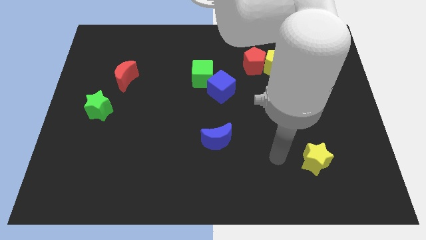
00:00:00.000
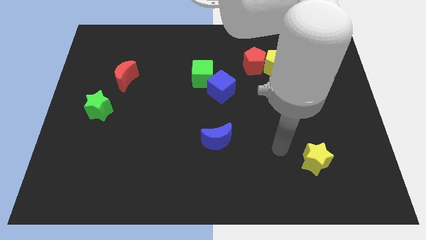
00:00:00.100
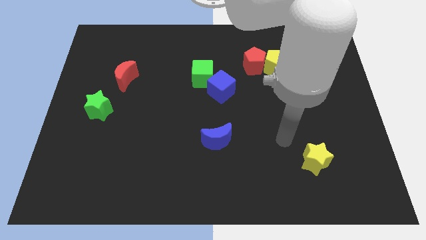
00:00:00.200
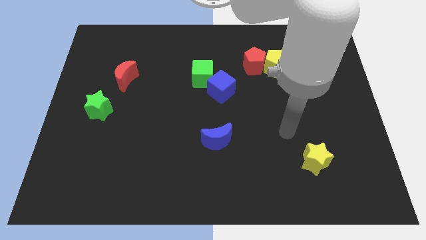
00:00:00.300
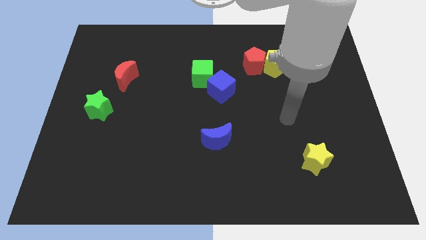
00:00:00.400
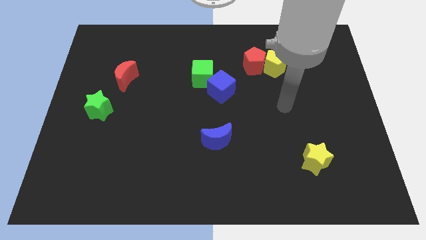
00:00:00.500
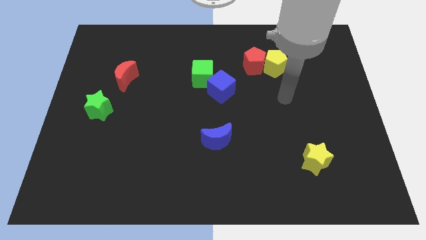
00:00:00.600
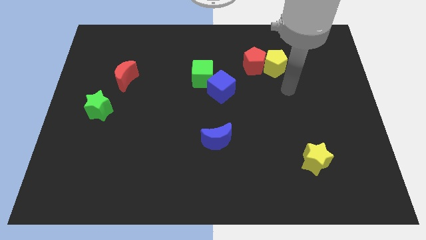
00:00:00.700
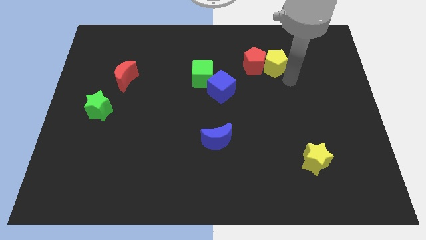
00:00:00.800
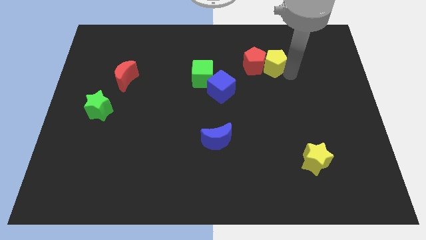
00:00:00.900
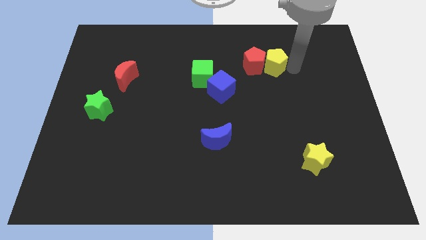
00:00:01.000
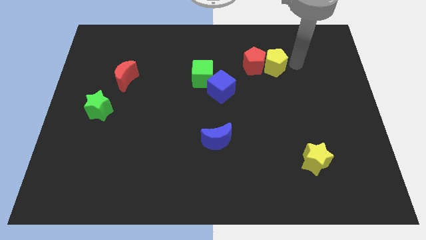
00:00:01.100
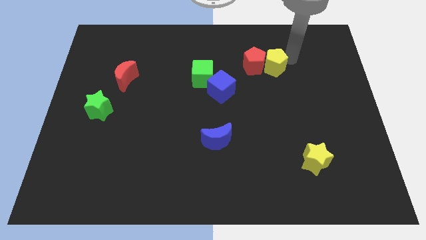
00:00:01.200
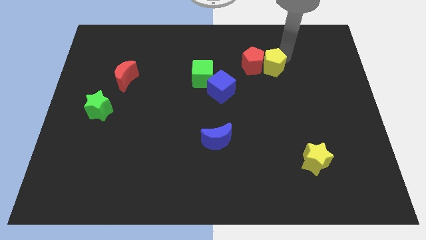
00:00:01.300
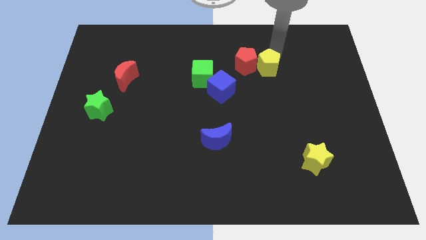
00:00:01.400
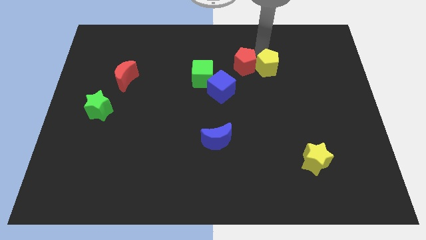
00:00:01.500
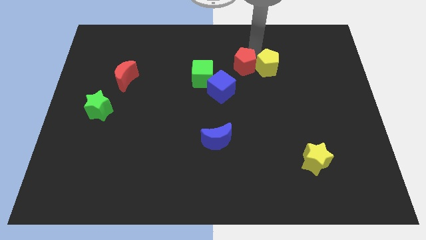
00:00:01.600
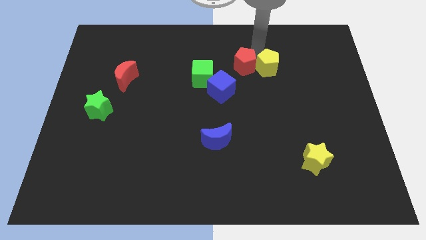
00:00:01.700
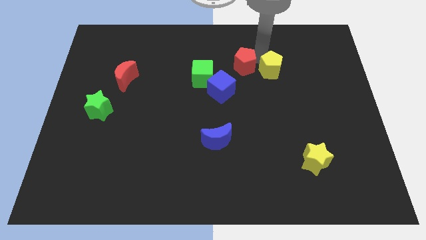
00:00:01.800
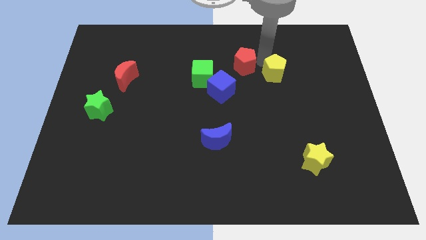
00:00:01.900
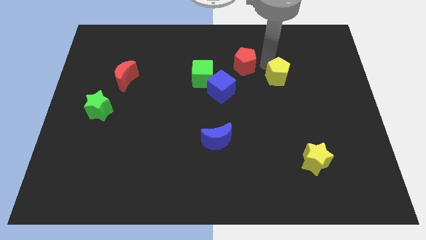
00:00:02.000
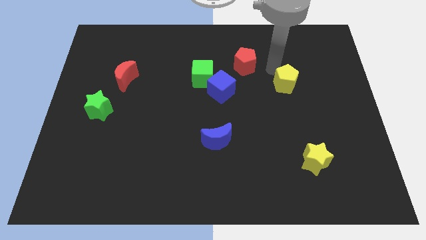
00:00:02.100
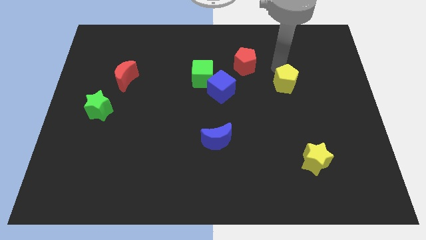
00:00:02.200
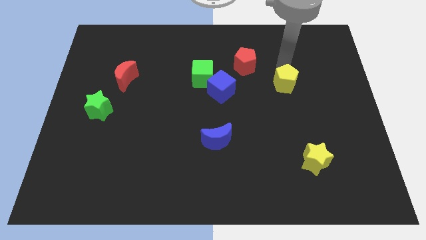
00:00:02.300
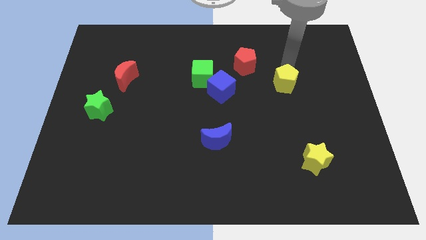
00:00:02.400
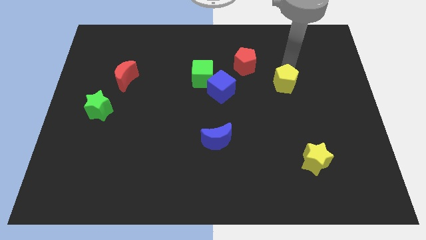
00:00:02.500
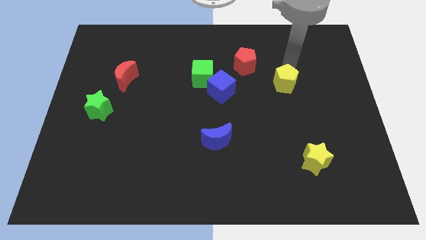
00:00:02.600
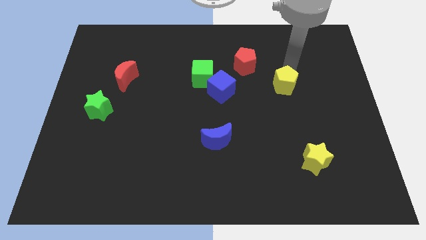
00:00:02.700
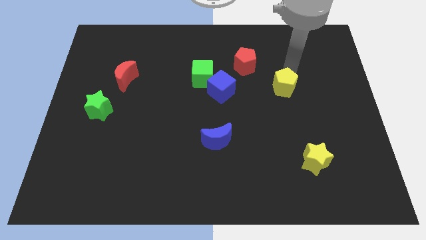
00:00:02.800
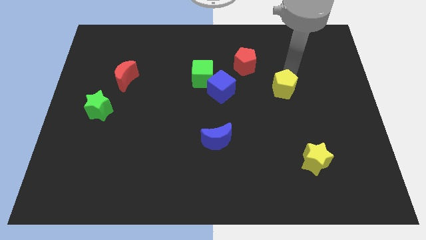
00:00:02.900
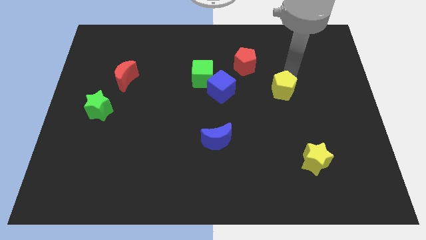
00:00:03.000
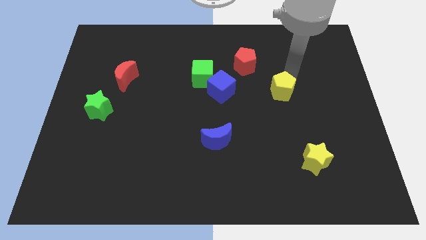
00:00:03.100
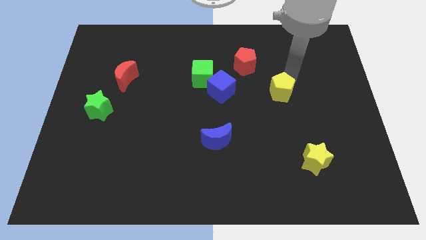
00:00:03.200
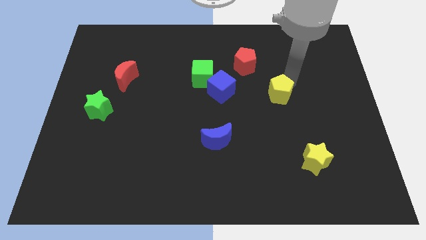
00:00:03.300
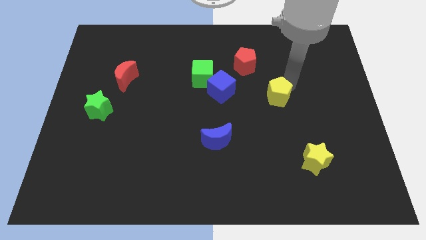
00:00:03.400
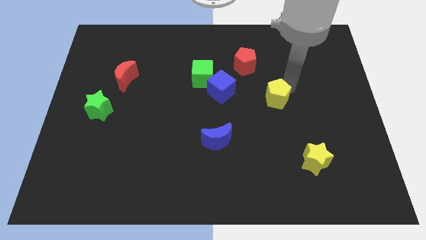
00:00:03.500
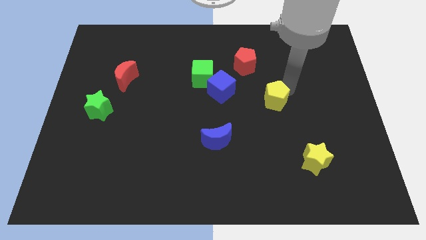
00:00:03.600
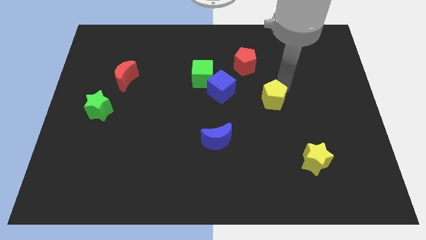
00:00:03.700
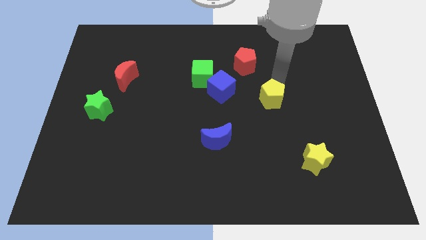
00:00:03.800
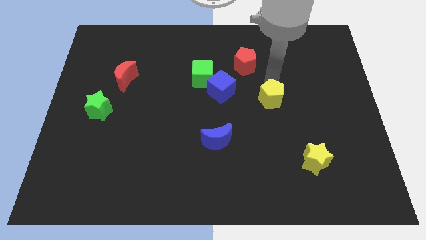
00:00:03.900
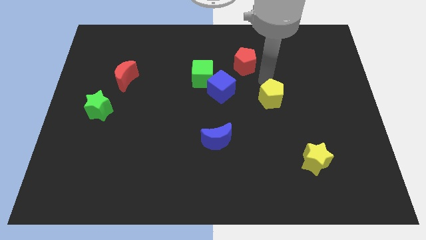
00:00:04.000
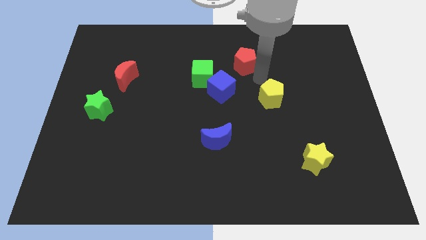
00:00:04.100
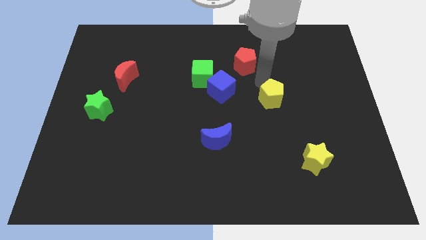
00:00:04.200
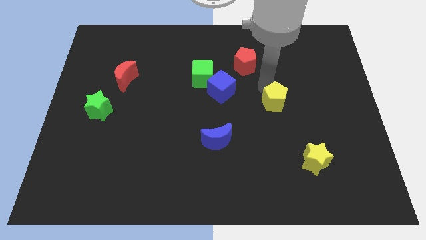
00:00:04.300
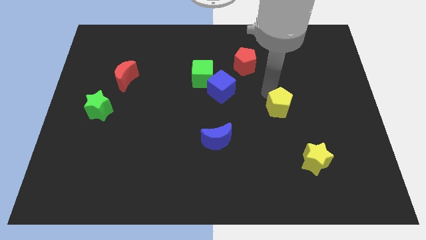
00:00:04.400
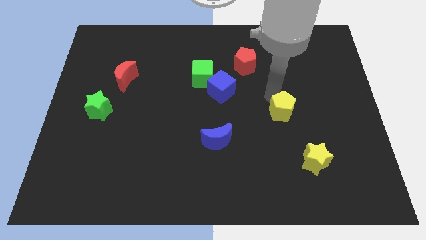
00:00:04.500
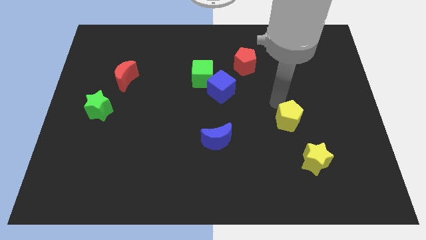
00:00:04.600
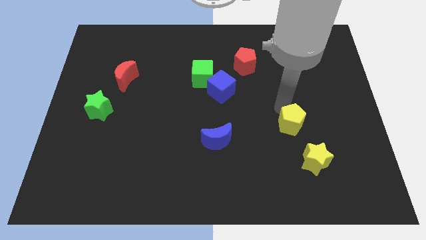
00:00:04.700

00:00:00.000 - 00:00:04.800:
slide the yellow pentagon to the top left side of the yellow star

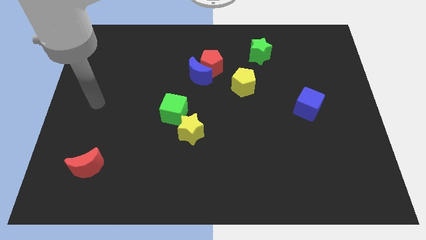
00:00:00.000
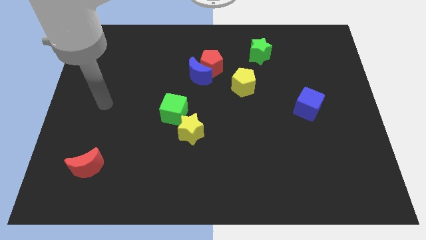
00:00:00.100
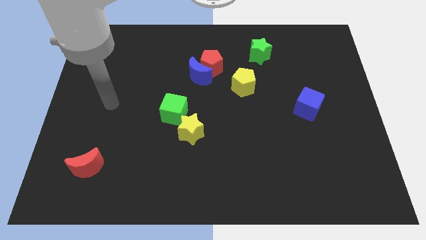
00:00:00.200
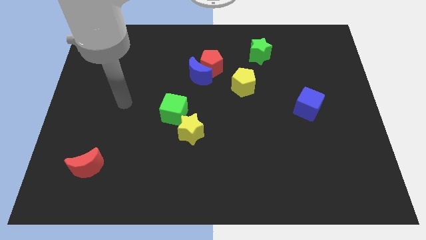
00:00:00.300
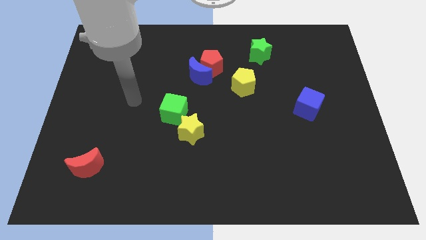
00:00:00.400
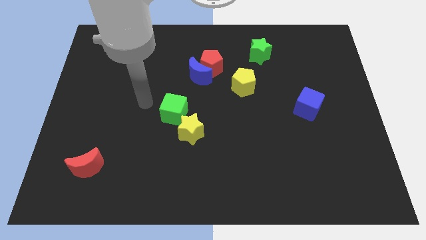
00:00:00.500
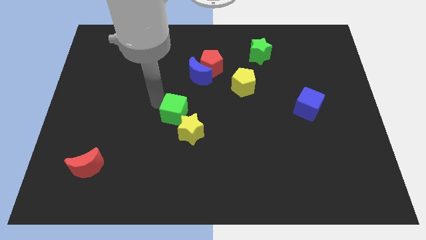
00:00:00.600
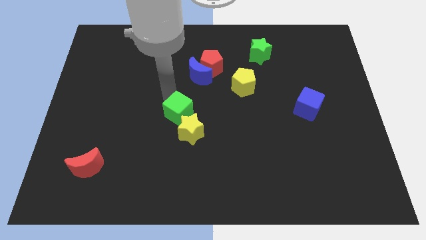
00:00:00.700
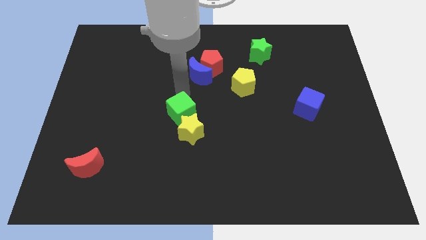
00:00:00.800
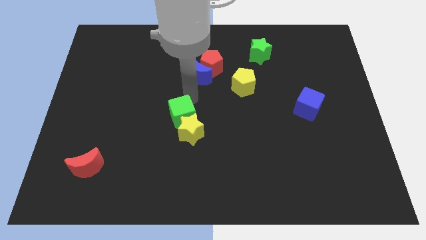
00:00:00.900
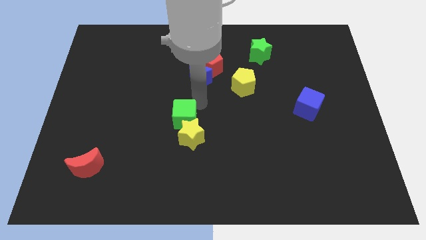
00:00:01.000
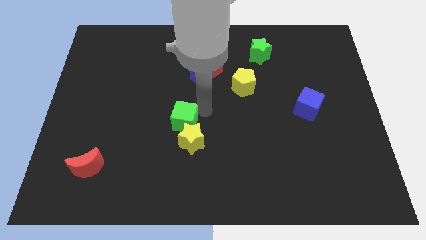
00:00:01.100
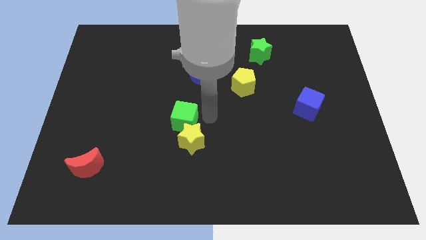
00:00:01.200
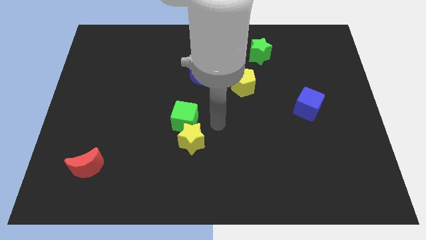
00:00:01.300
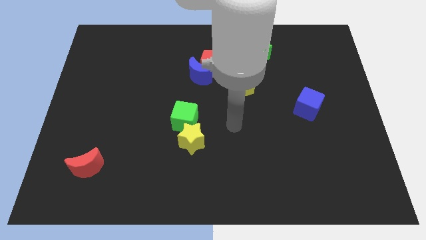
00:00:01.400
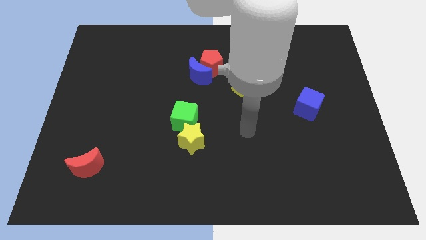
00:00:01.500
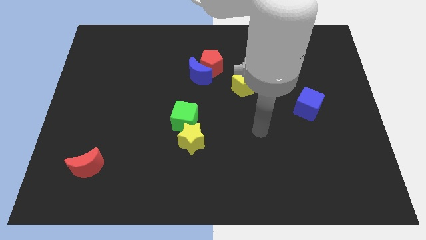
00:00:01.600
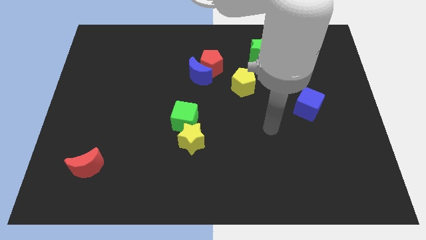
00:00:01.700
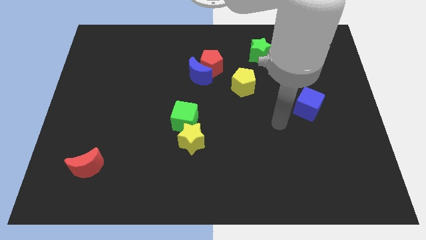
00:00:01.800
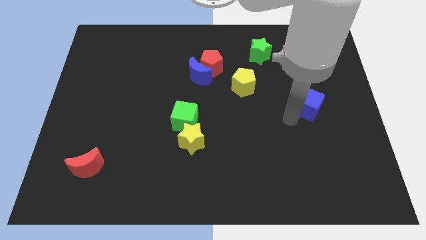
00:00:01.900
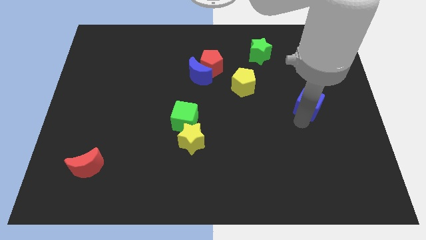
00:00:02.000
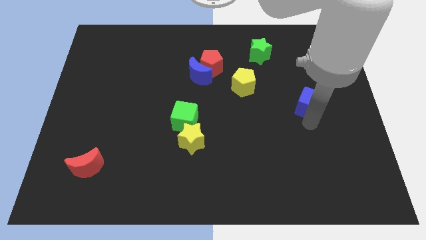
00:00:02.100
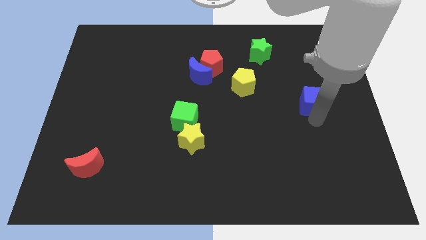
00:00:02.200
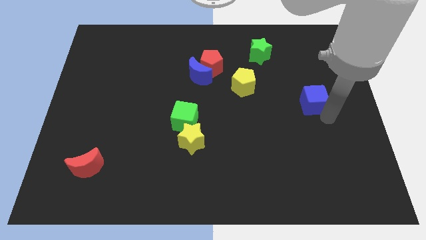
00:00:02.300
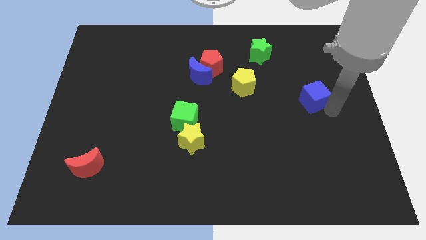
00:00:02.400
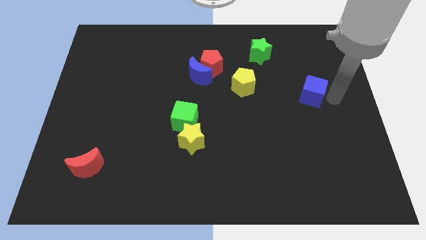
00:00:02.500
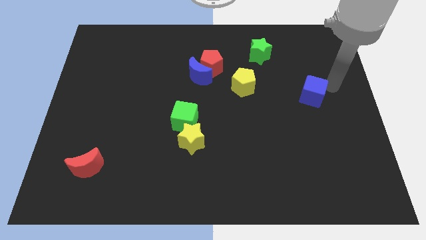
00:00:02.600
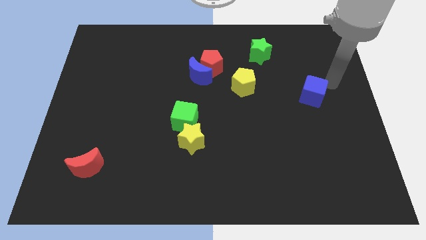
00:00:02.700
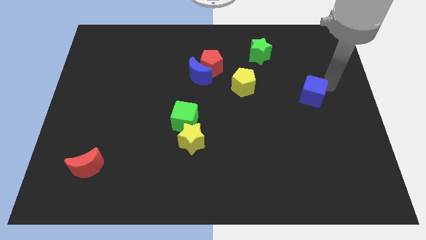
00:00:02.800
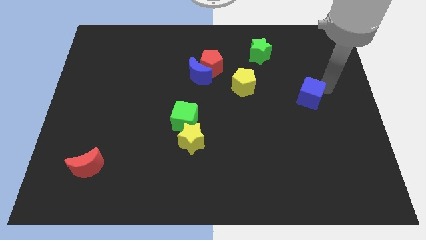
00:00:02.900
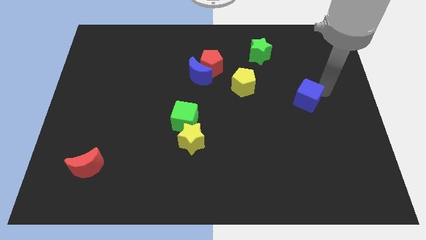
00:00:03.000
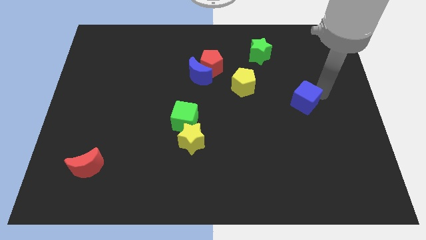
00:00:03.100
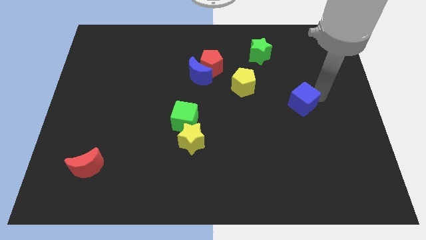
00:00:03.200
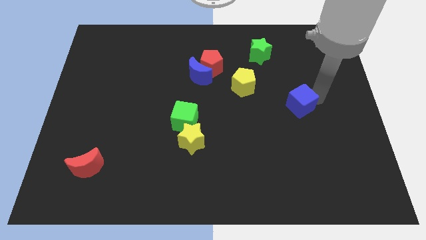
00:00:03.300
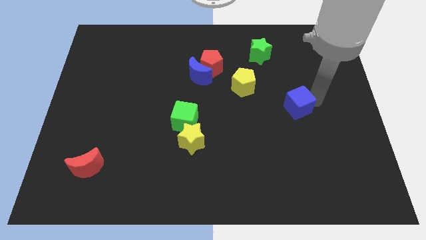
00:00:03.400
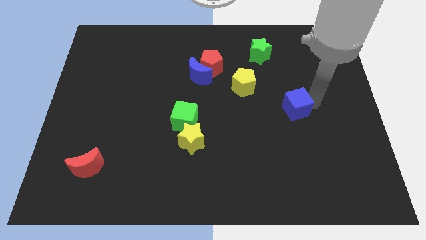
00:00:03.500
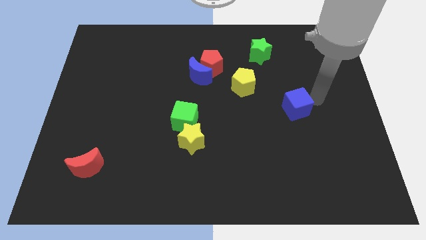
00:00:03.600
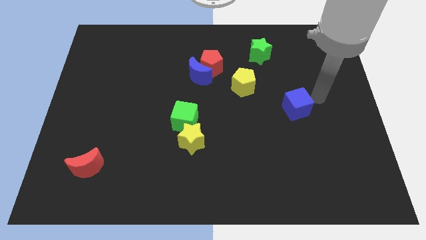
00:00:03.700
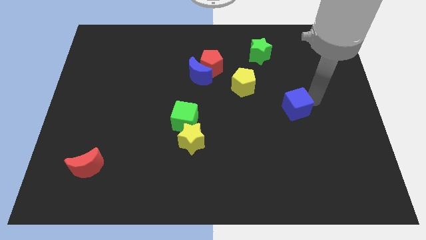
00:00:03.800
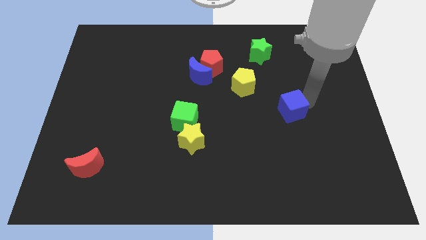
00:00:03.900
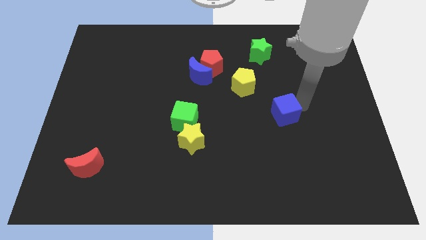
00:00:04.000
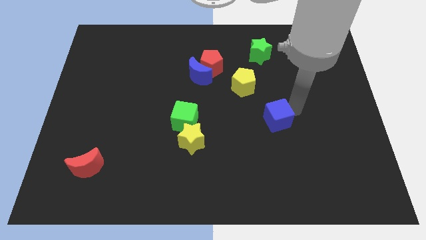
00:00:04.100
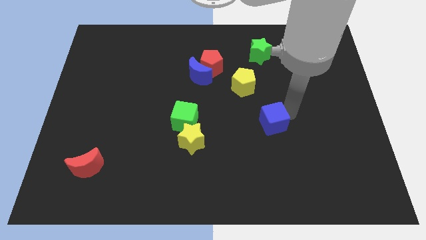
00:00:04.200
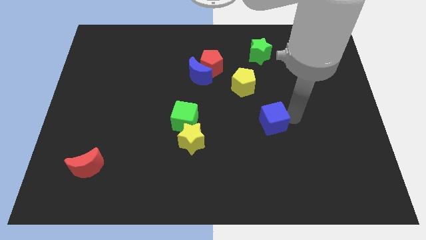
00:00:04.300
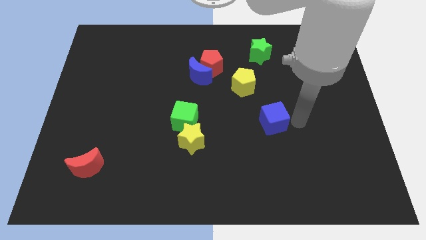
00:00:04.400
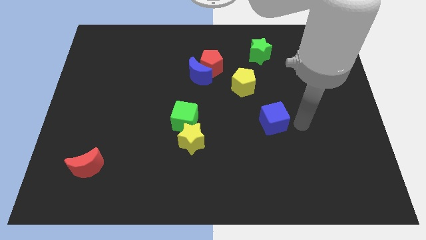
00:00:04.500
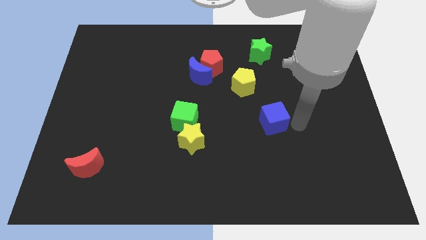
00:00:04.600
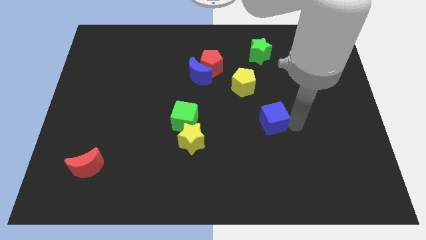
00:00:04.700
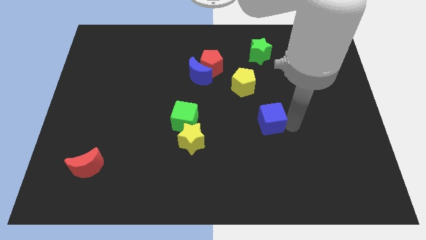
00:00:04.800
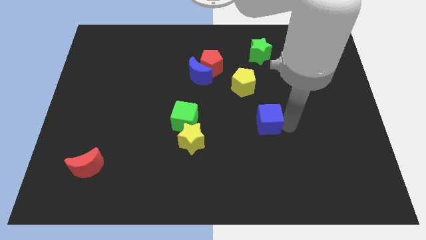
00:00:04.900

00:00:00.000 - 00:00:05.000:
put the blue cube to the bottom of the yellow pentagon
